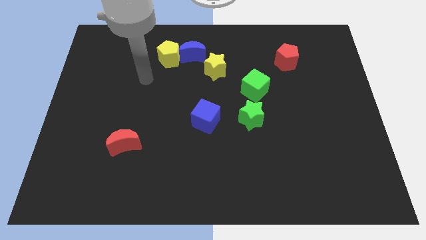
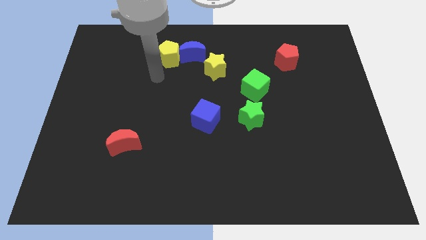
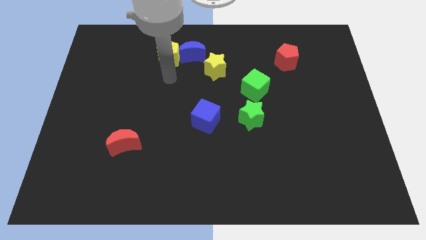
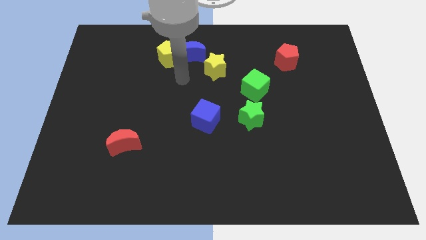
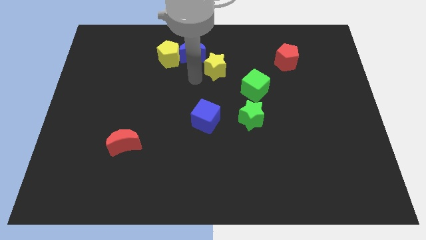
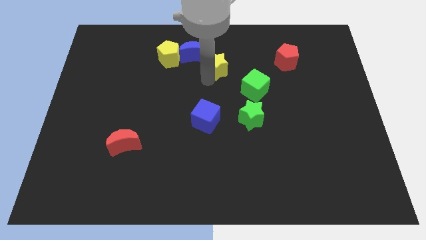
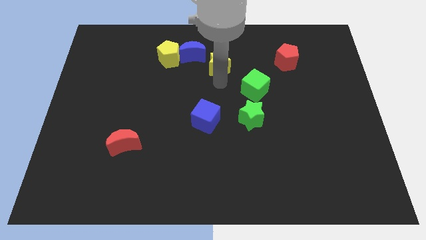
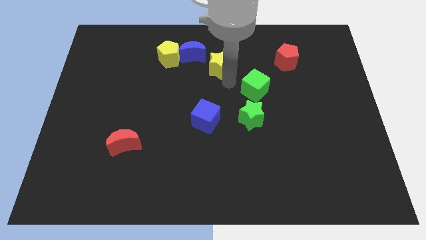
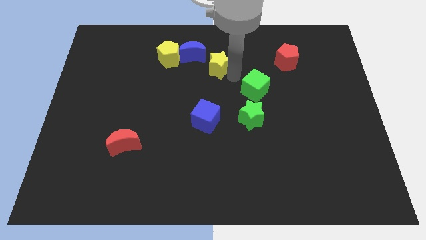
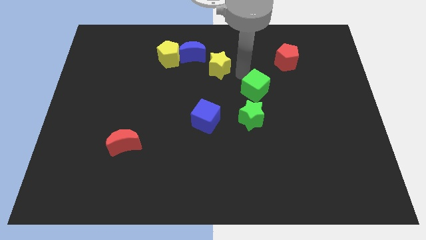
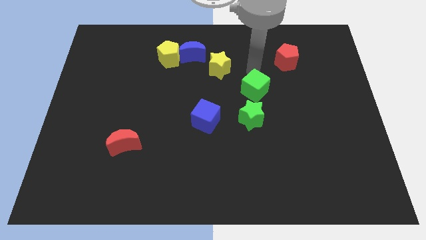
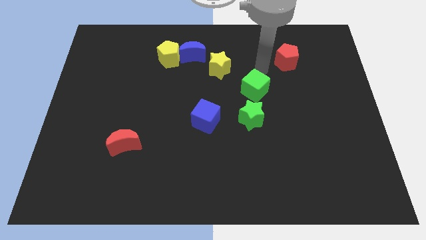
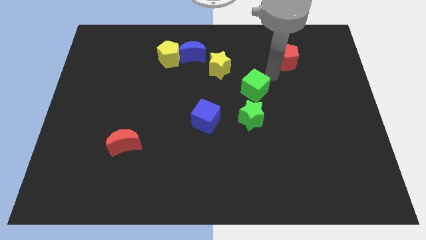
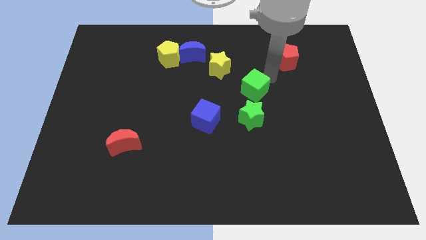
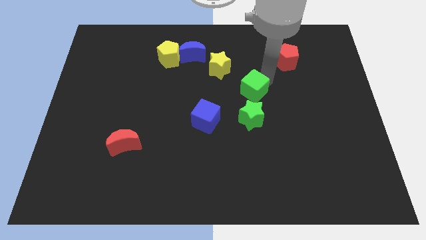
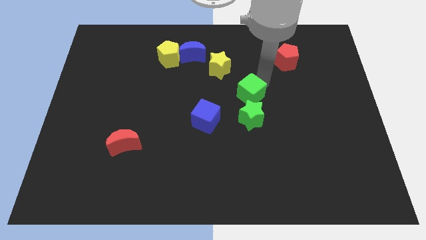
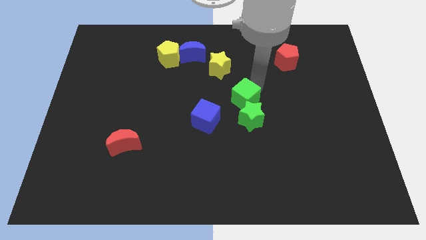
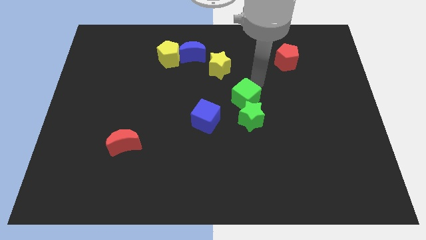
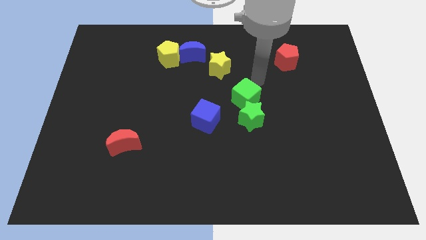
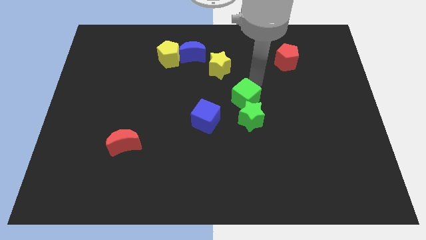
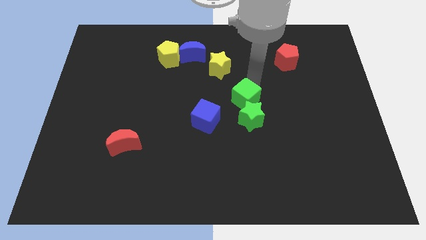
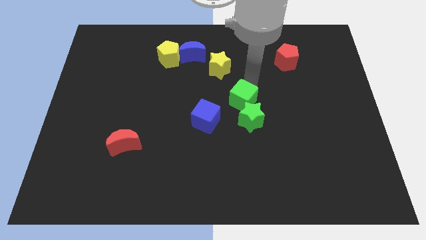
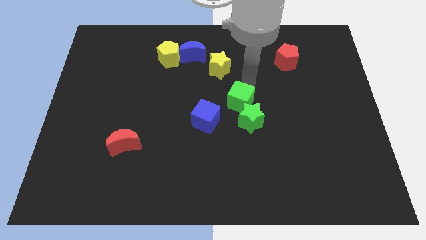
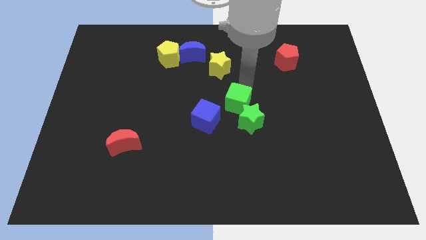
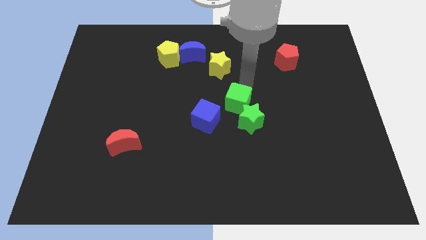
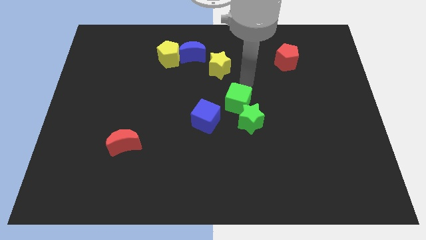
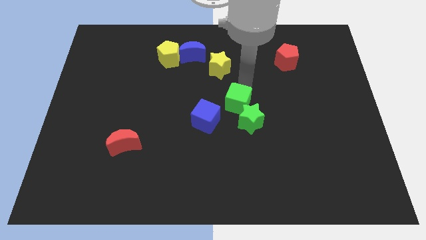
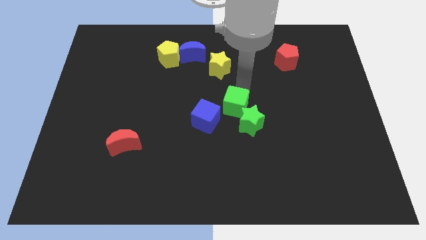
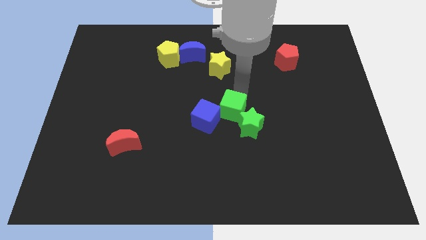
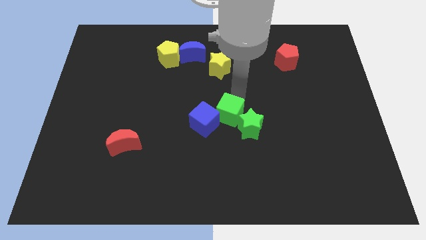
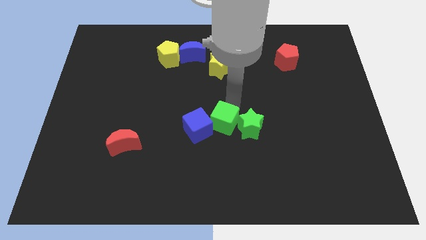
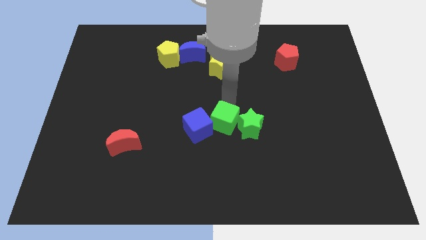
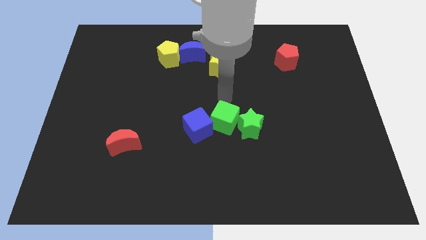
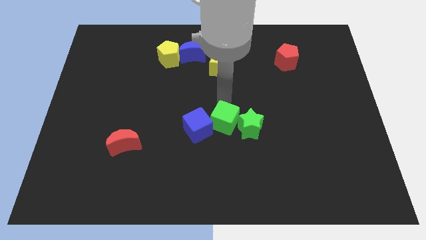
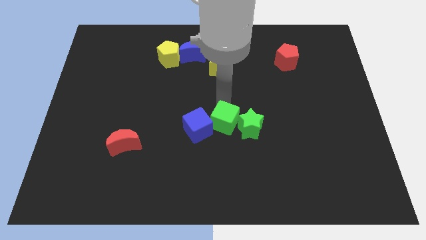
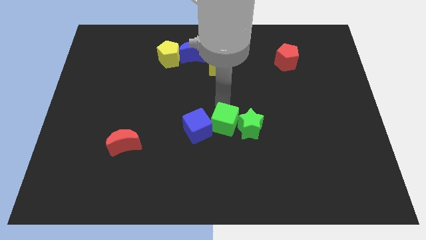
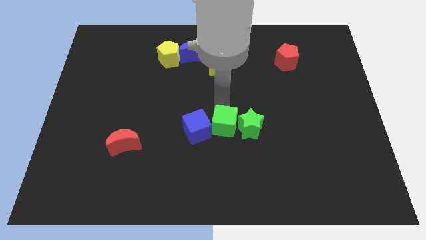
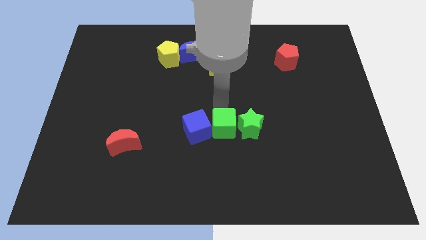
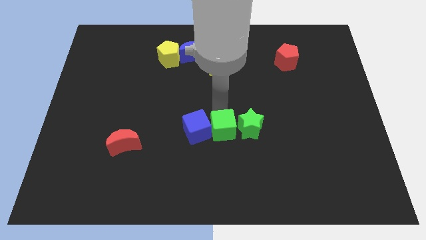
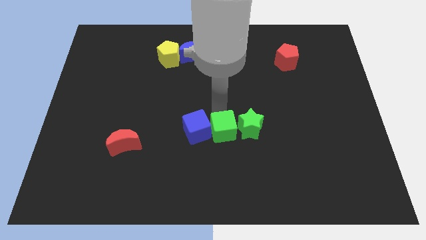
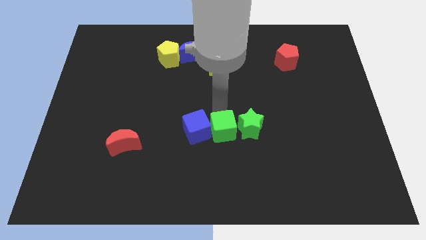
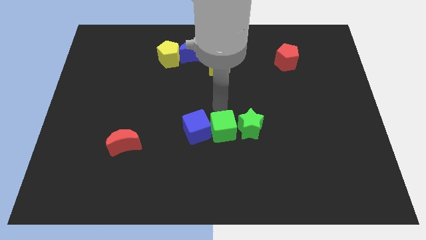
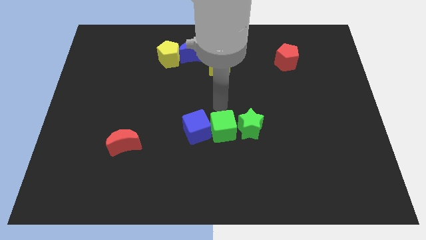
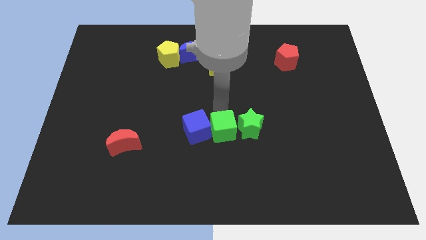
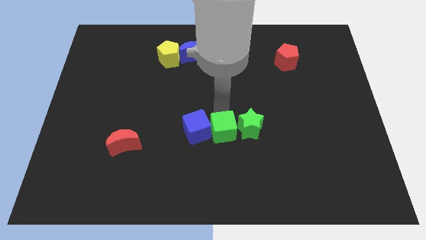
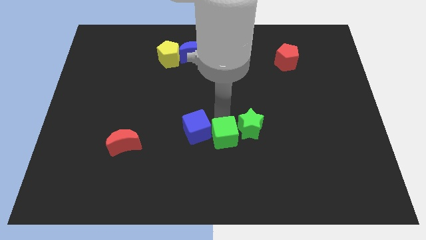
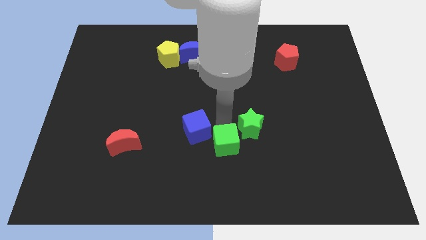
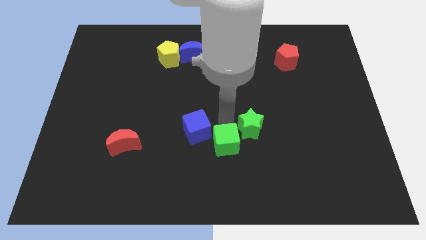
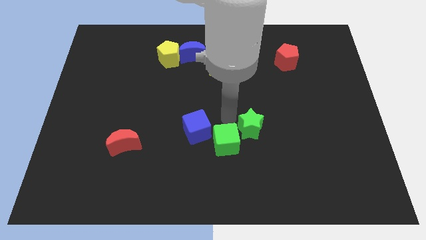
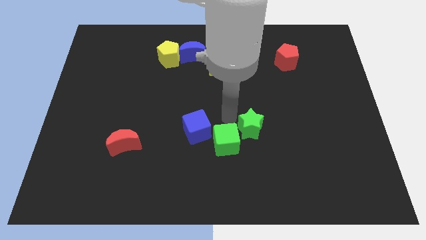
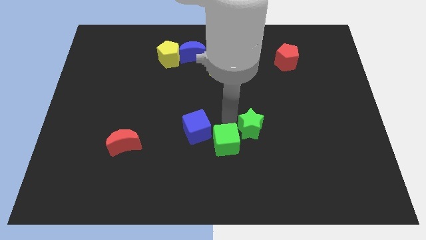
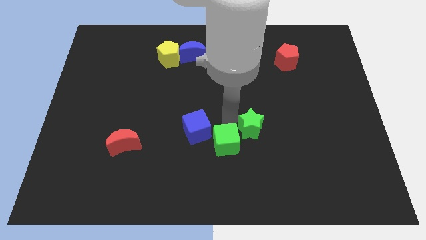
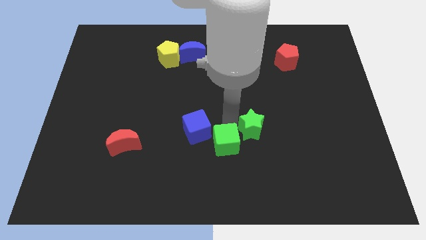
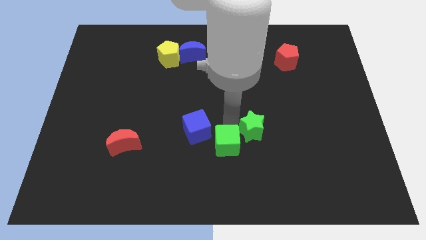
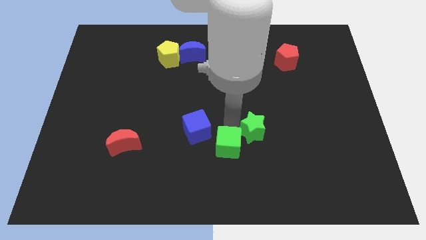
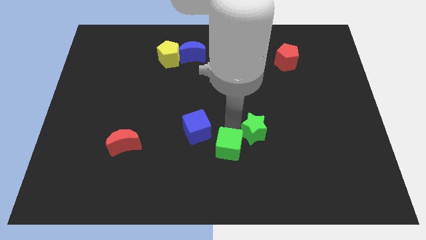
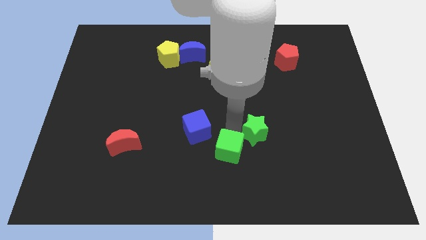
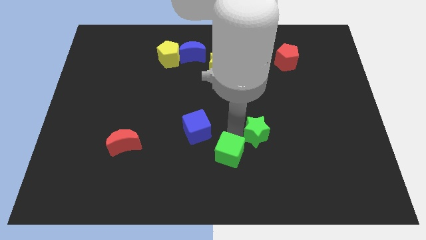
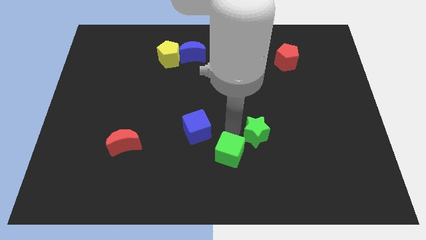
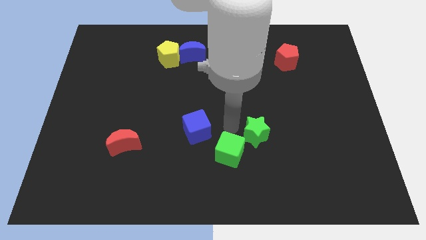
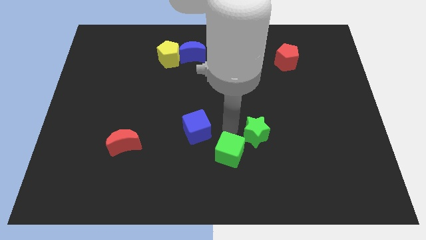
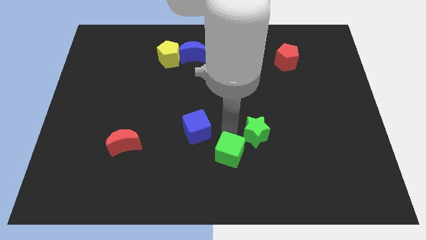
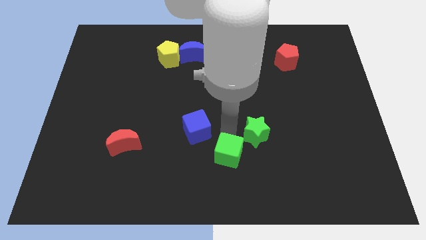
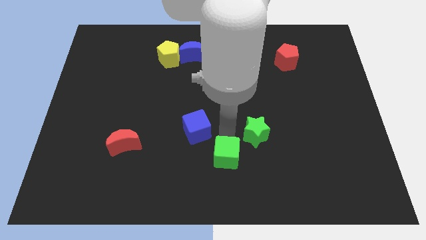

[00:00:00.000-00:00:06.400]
slide the green cube to the bottom side
